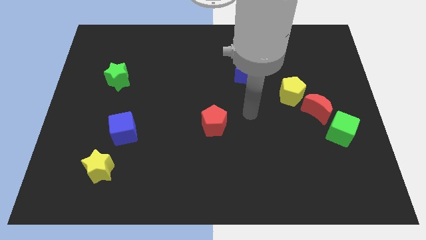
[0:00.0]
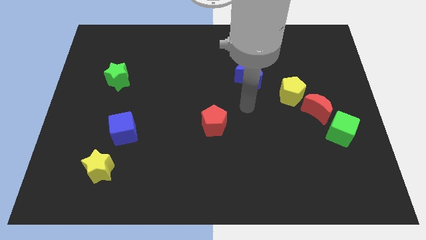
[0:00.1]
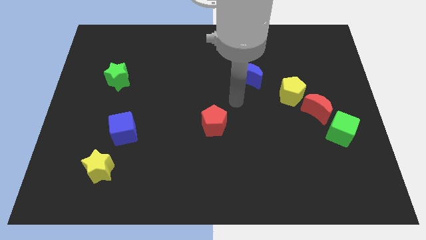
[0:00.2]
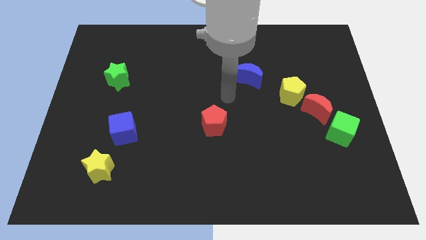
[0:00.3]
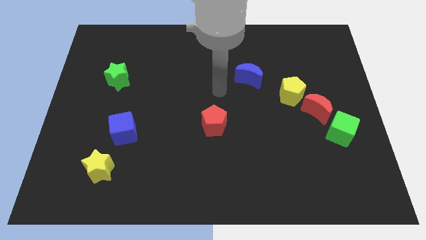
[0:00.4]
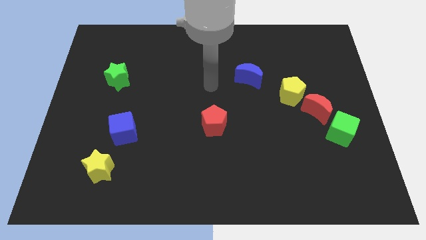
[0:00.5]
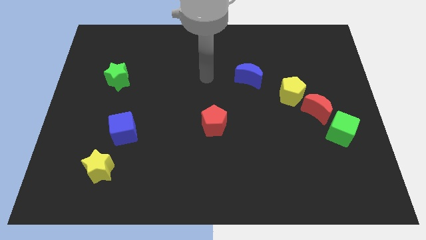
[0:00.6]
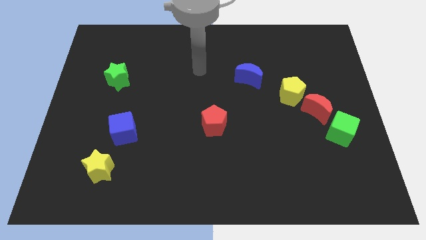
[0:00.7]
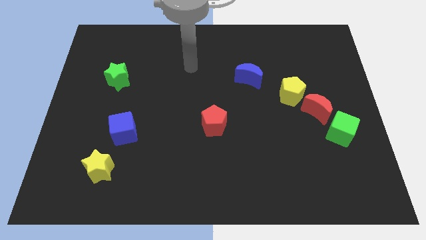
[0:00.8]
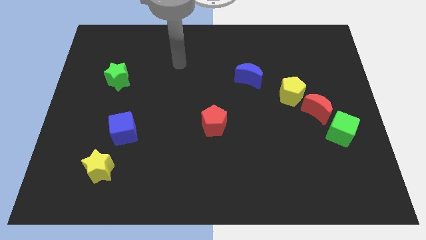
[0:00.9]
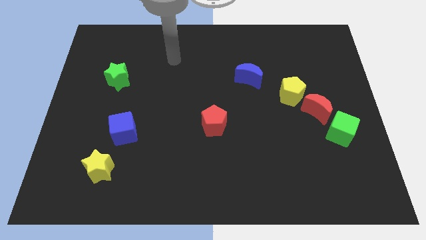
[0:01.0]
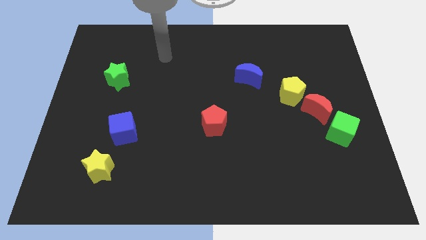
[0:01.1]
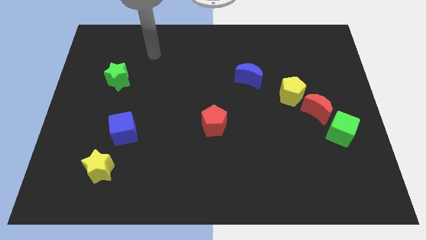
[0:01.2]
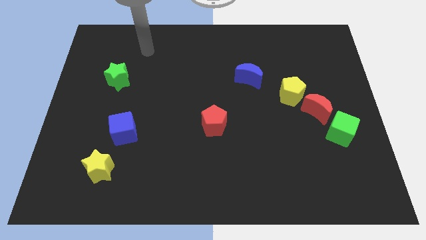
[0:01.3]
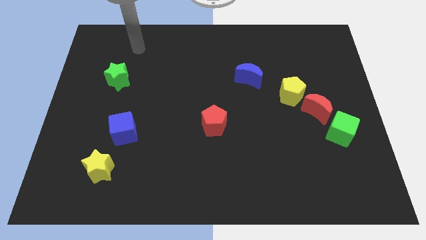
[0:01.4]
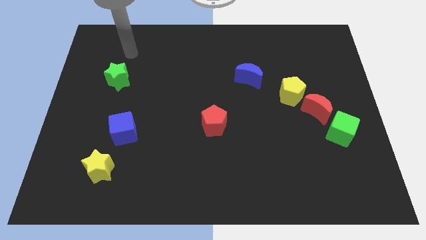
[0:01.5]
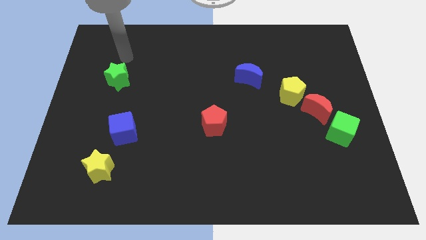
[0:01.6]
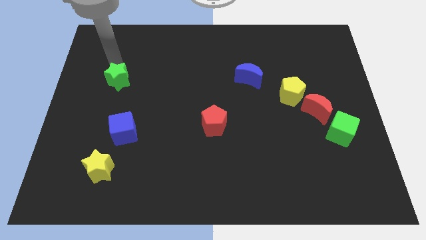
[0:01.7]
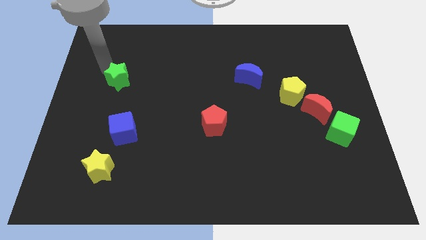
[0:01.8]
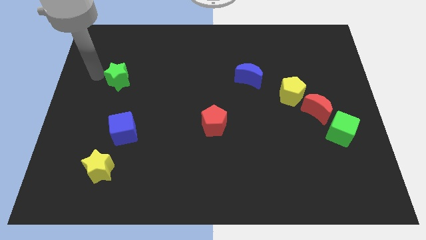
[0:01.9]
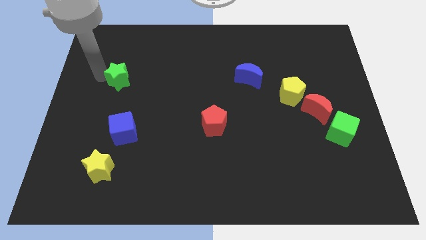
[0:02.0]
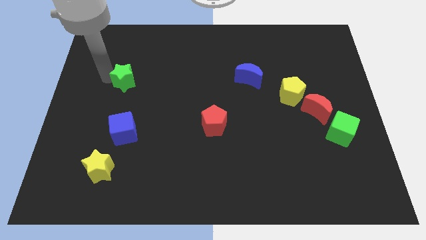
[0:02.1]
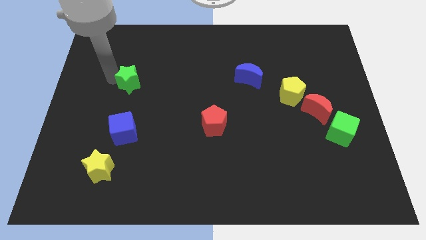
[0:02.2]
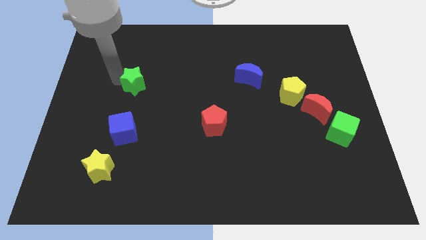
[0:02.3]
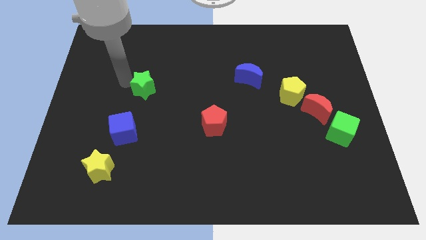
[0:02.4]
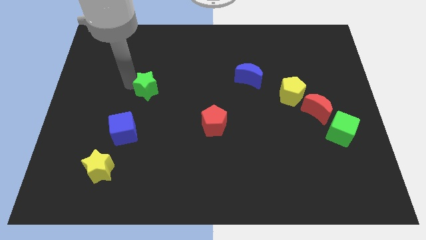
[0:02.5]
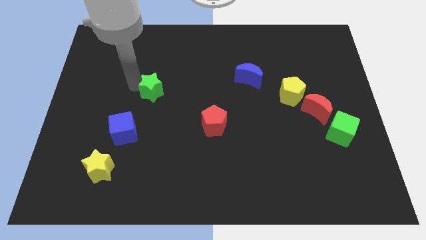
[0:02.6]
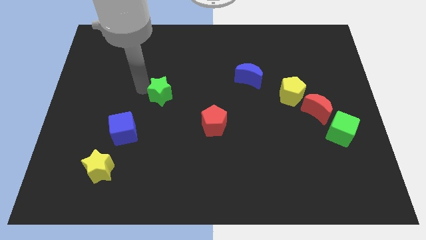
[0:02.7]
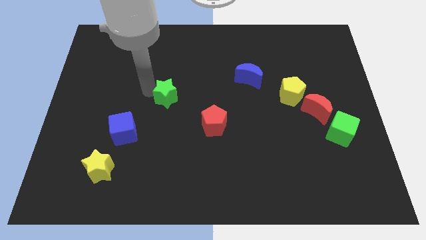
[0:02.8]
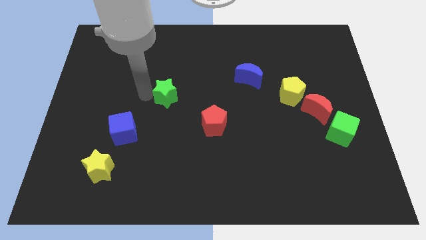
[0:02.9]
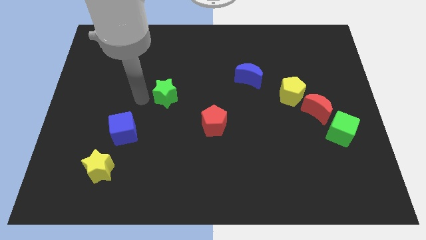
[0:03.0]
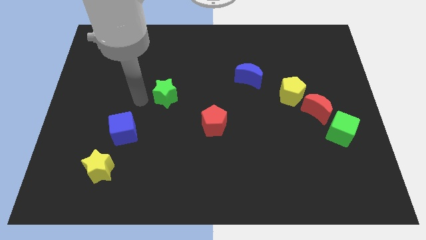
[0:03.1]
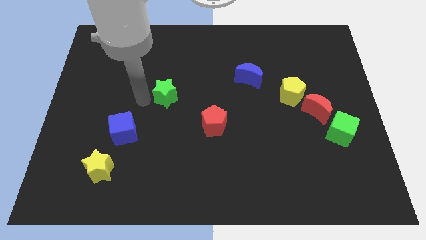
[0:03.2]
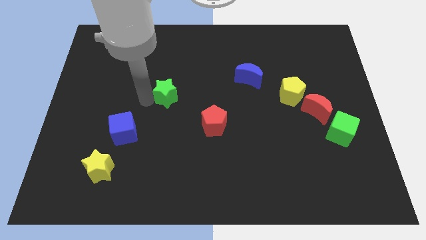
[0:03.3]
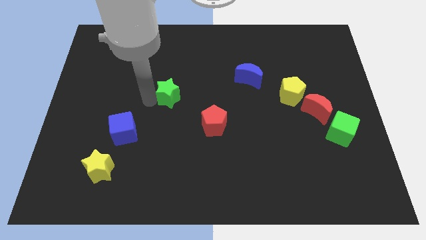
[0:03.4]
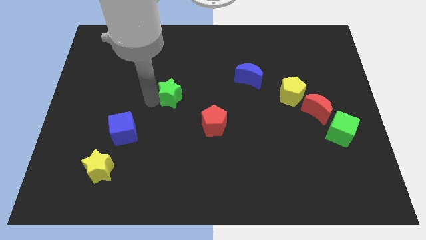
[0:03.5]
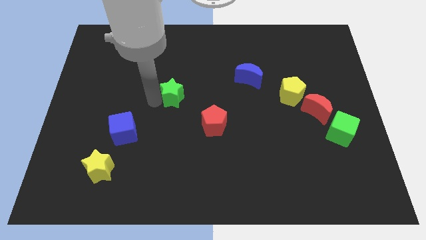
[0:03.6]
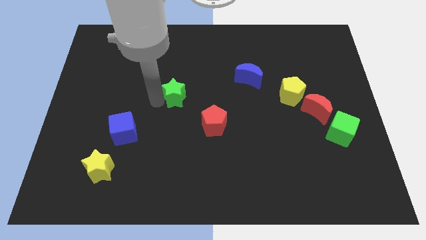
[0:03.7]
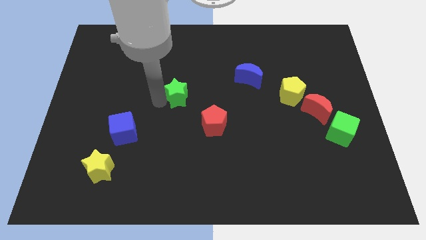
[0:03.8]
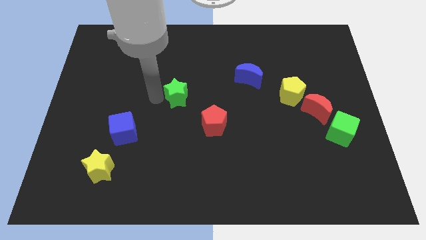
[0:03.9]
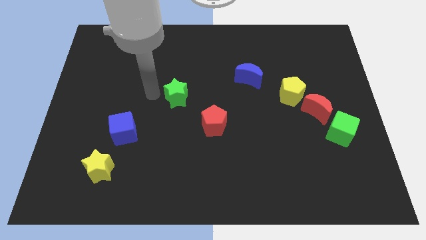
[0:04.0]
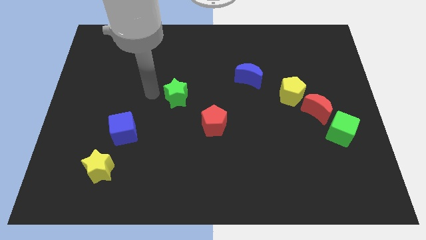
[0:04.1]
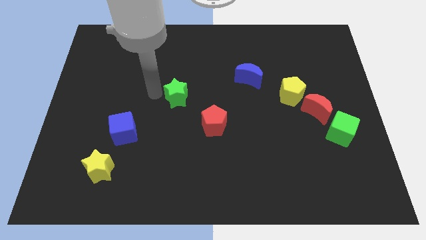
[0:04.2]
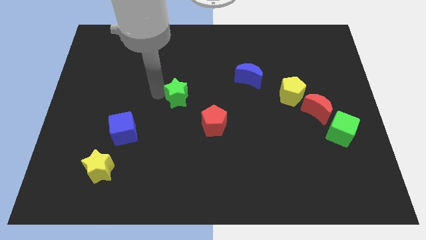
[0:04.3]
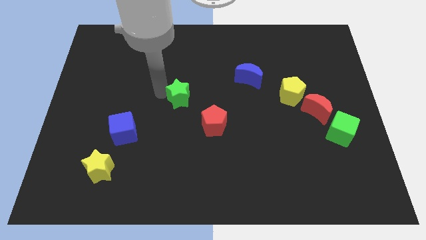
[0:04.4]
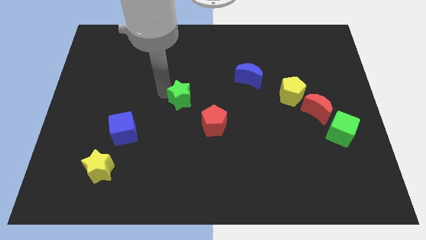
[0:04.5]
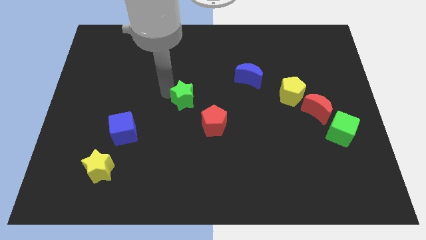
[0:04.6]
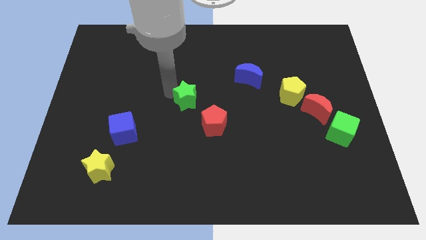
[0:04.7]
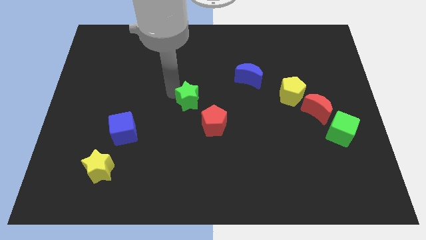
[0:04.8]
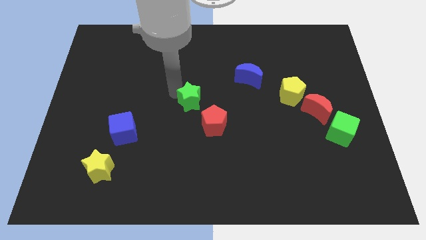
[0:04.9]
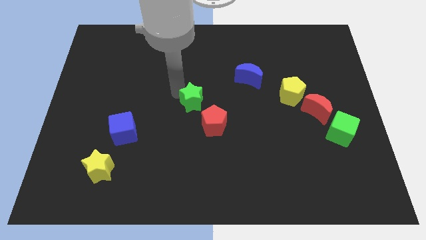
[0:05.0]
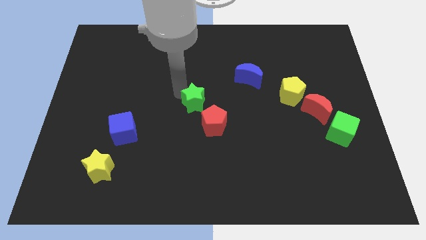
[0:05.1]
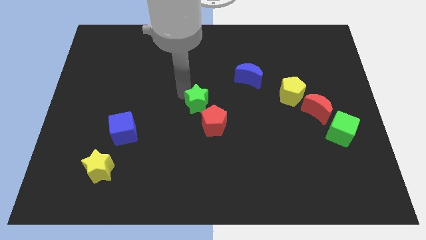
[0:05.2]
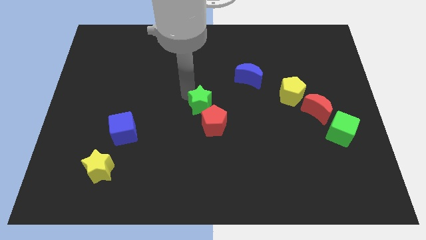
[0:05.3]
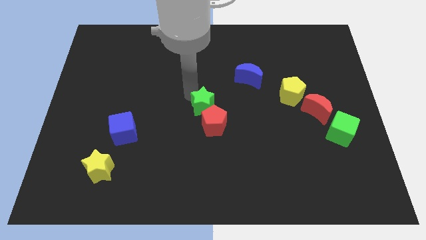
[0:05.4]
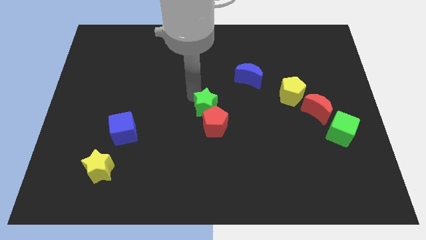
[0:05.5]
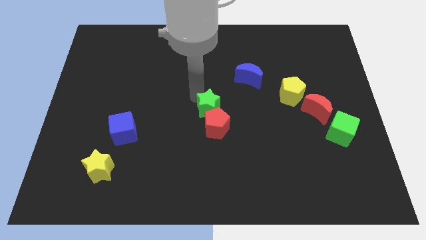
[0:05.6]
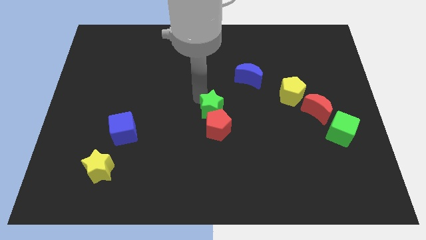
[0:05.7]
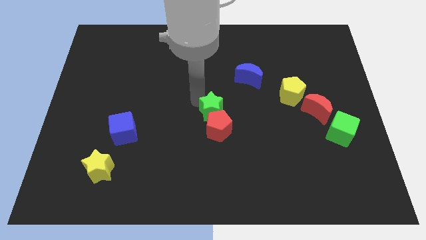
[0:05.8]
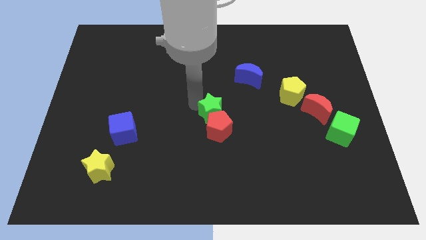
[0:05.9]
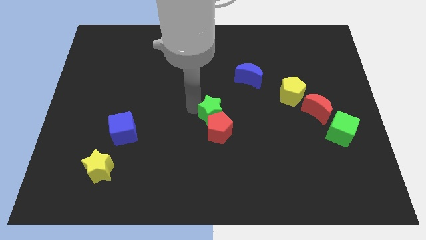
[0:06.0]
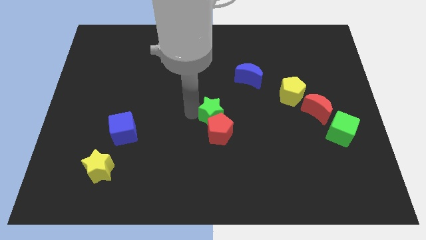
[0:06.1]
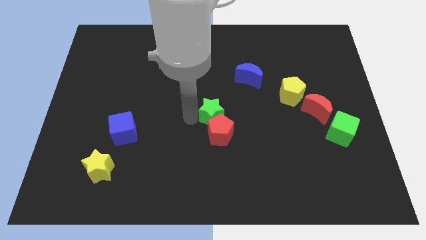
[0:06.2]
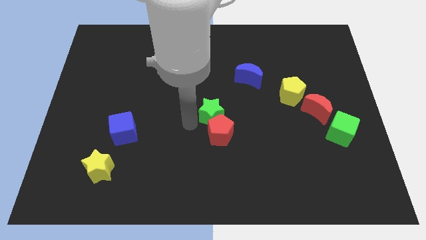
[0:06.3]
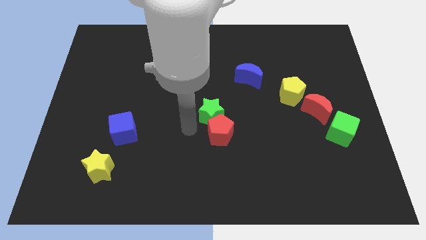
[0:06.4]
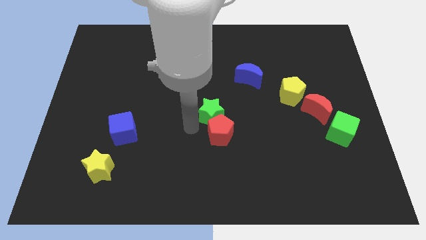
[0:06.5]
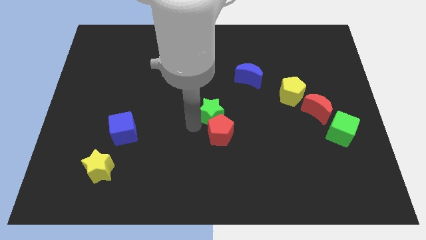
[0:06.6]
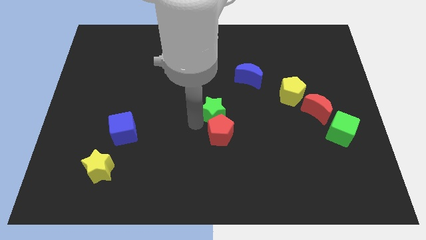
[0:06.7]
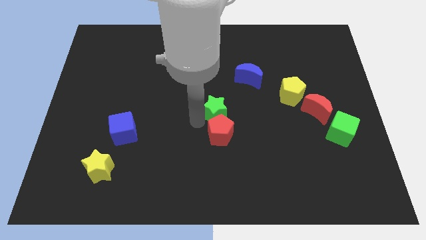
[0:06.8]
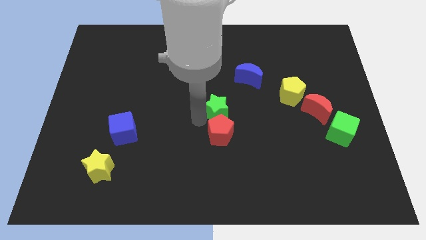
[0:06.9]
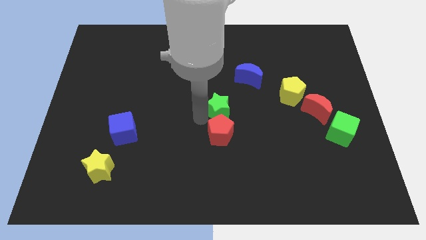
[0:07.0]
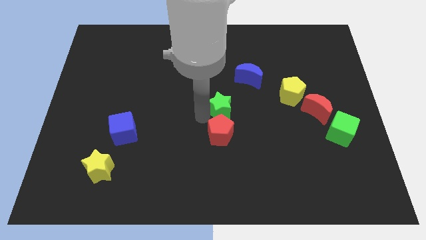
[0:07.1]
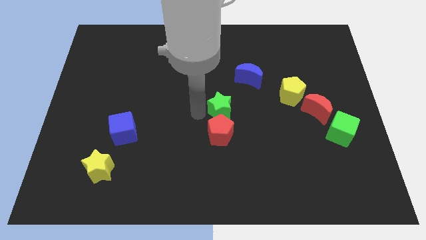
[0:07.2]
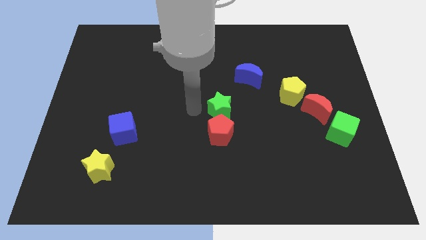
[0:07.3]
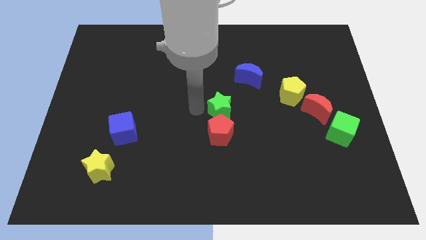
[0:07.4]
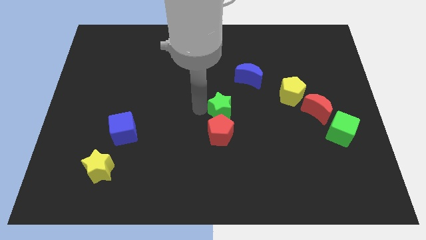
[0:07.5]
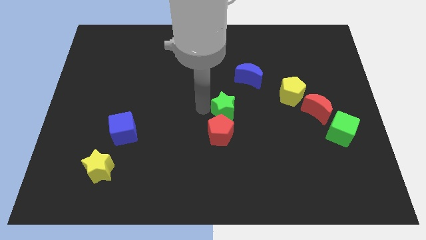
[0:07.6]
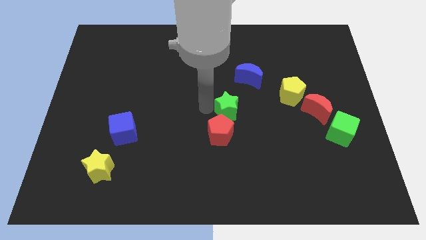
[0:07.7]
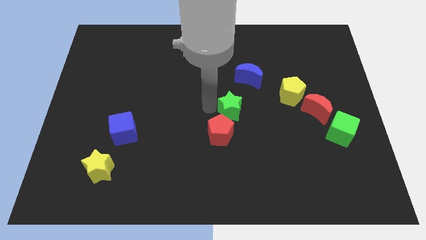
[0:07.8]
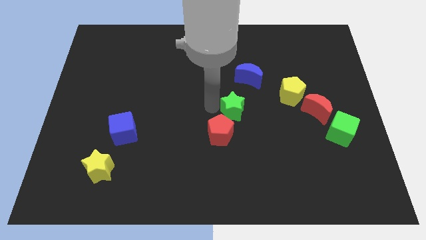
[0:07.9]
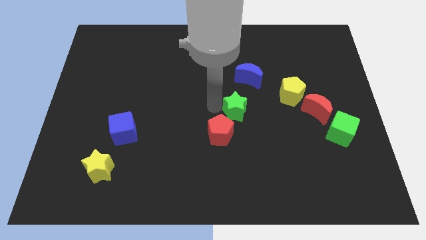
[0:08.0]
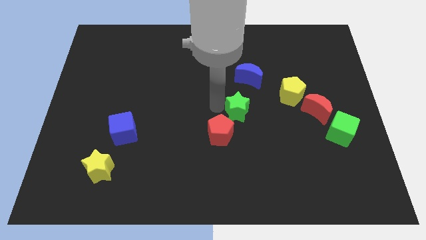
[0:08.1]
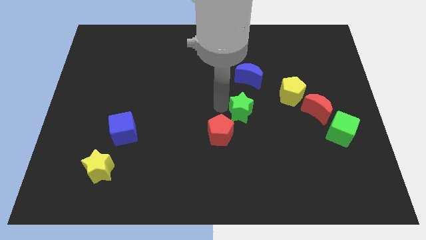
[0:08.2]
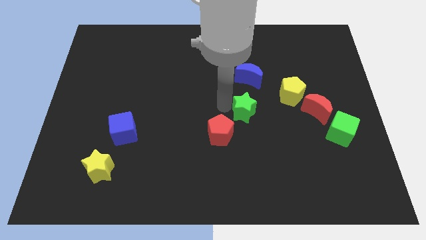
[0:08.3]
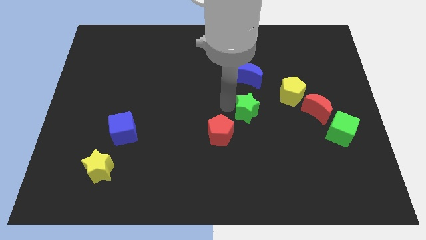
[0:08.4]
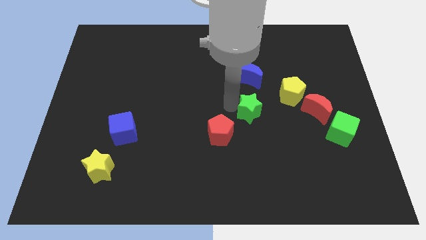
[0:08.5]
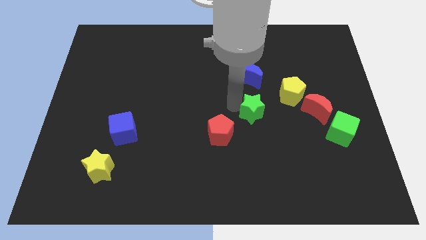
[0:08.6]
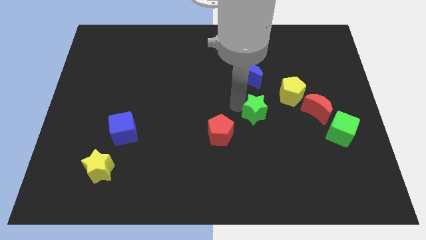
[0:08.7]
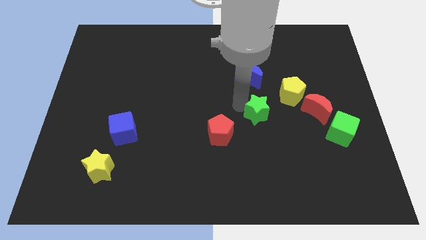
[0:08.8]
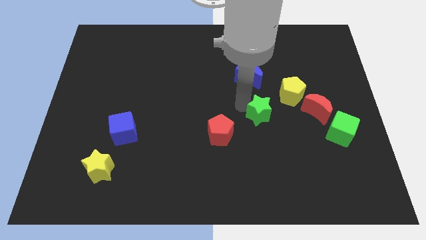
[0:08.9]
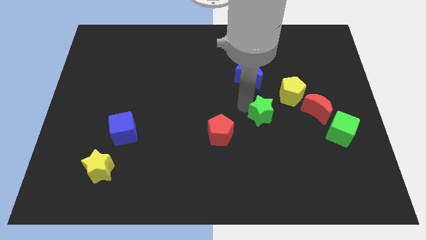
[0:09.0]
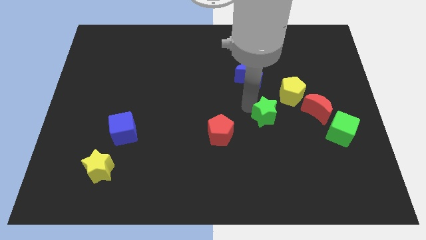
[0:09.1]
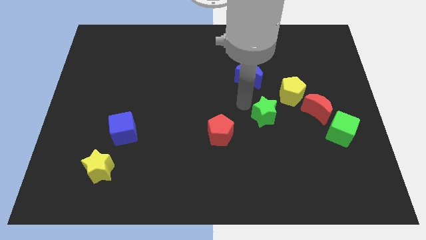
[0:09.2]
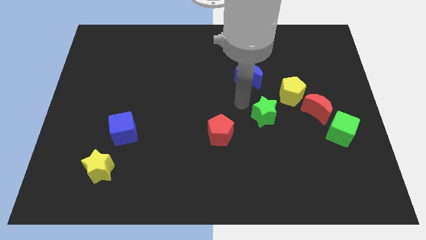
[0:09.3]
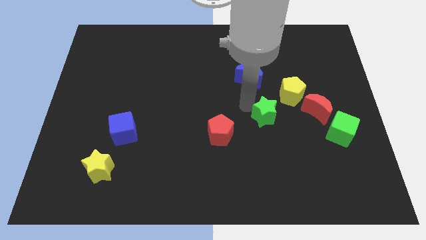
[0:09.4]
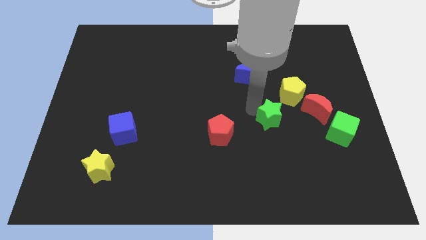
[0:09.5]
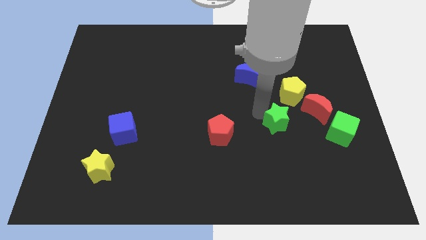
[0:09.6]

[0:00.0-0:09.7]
slide the green star to the left side of the green cube
